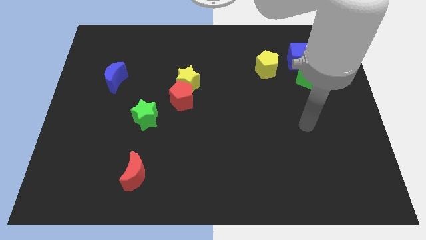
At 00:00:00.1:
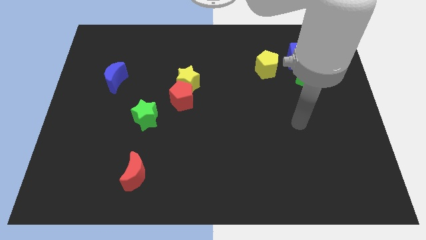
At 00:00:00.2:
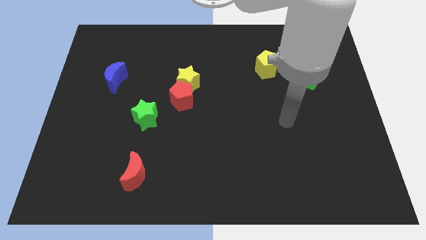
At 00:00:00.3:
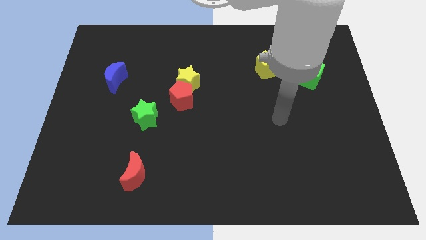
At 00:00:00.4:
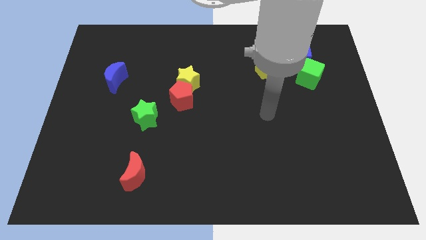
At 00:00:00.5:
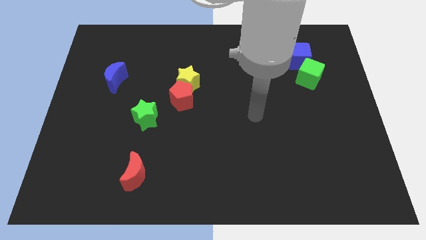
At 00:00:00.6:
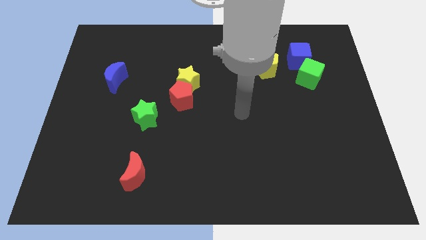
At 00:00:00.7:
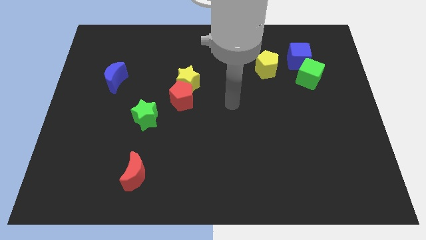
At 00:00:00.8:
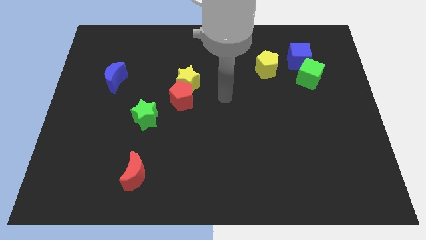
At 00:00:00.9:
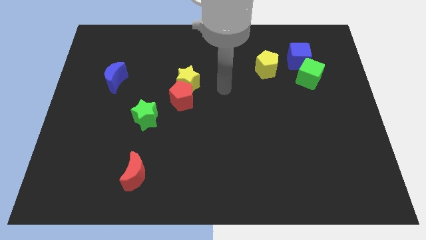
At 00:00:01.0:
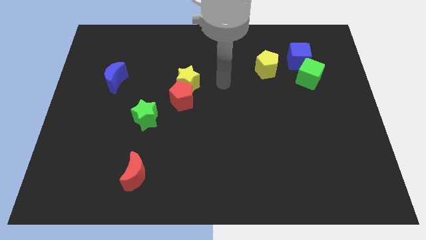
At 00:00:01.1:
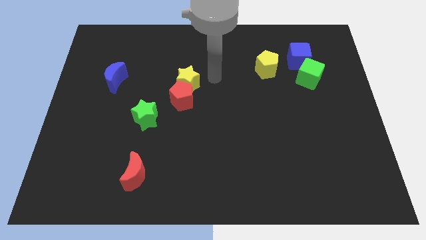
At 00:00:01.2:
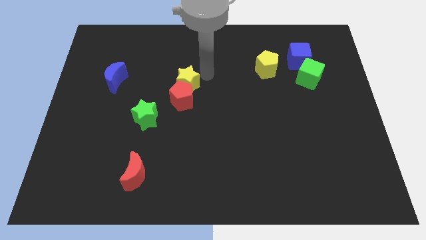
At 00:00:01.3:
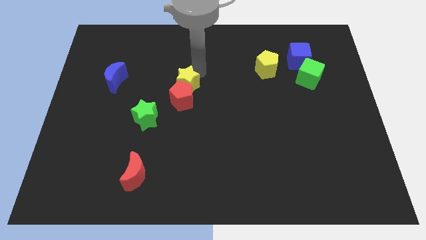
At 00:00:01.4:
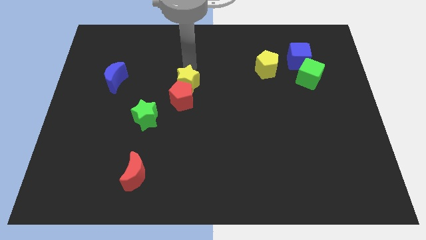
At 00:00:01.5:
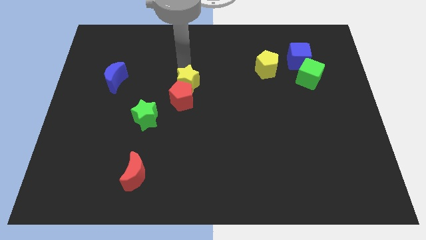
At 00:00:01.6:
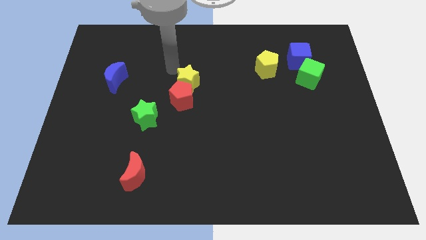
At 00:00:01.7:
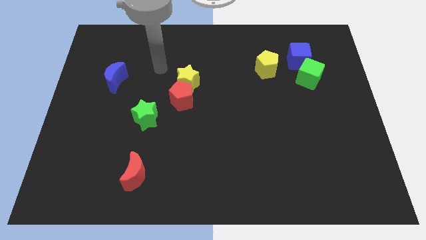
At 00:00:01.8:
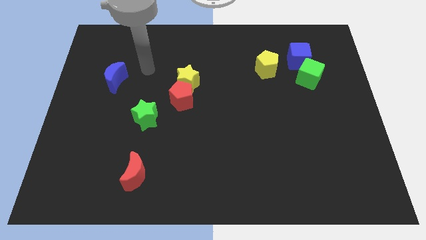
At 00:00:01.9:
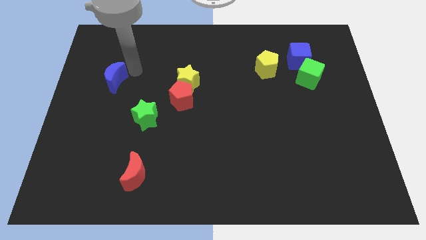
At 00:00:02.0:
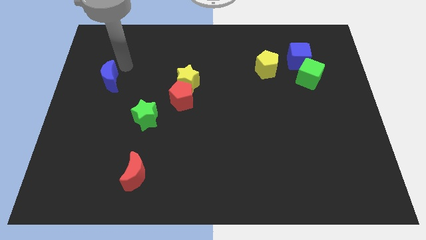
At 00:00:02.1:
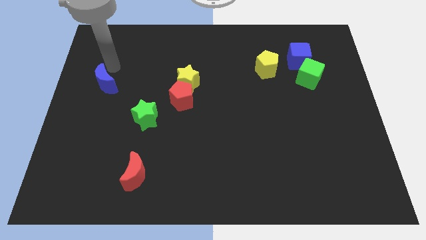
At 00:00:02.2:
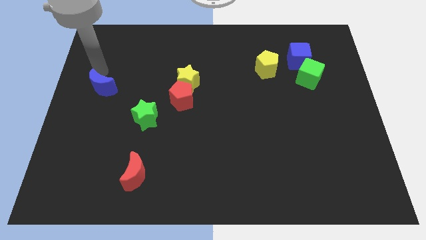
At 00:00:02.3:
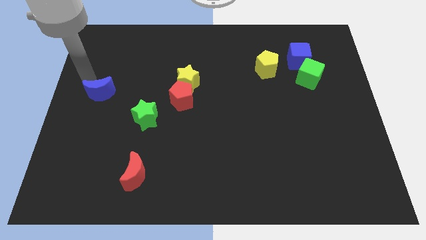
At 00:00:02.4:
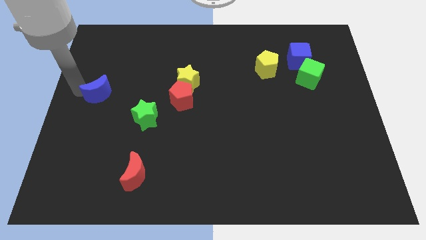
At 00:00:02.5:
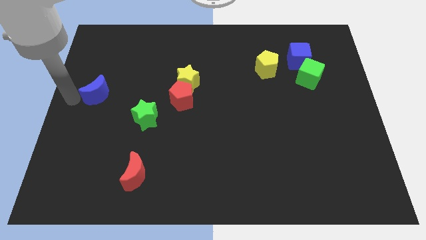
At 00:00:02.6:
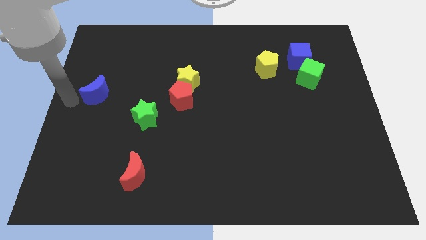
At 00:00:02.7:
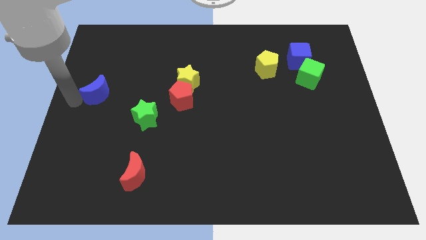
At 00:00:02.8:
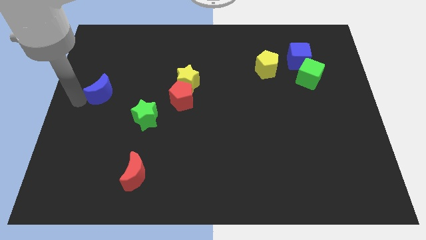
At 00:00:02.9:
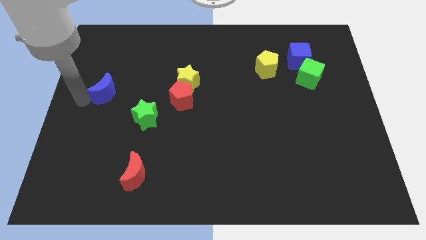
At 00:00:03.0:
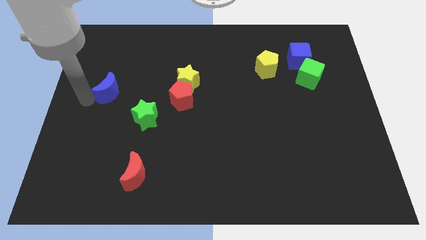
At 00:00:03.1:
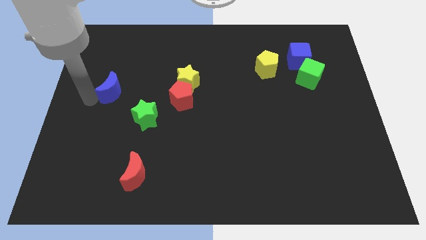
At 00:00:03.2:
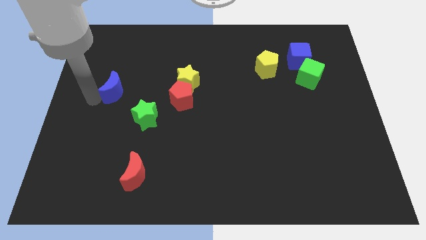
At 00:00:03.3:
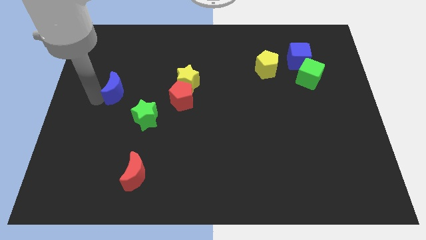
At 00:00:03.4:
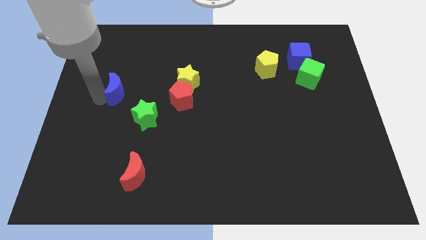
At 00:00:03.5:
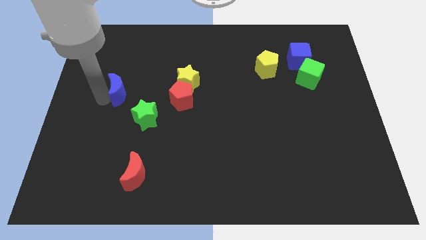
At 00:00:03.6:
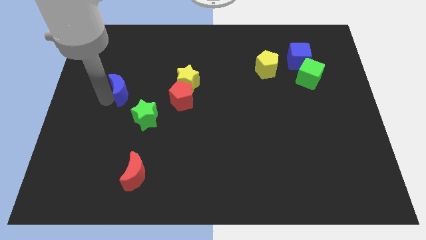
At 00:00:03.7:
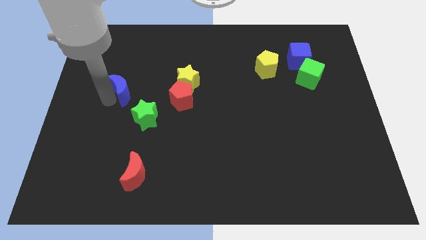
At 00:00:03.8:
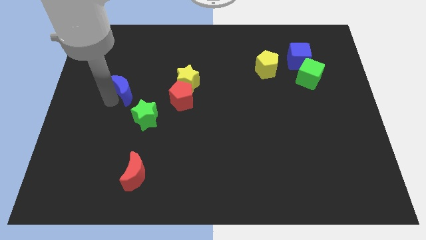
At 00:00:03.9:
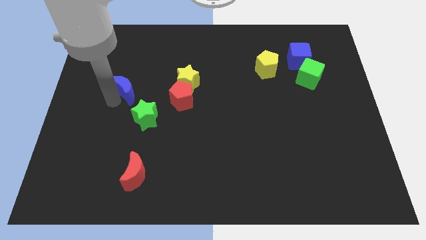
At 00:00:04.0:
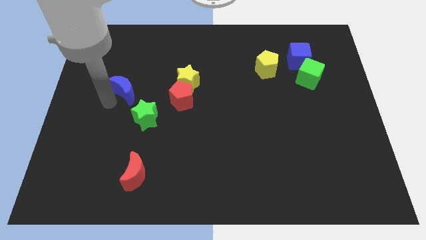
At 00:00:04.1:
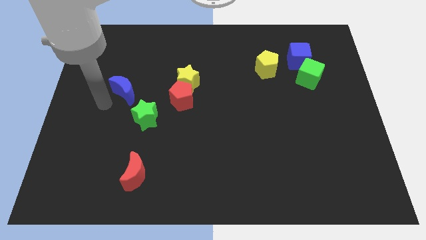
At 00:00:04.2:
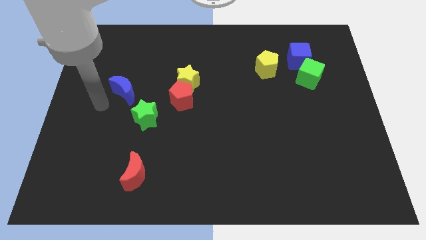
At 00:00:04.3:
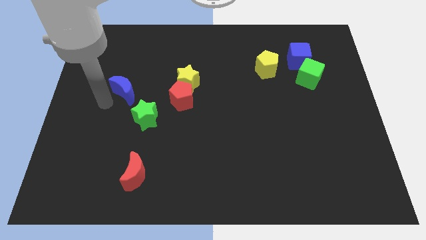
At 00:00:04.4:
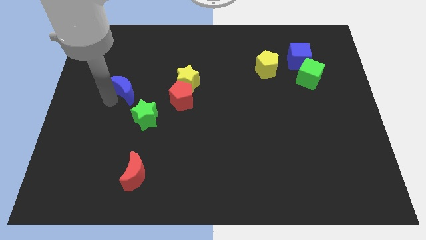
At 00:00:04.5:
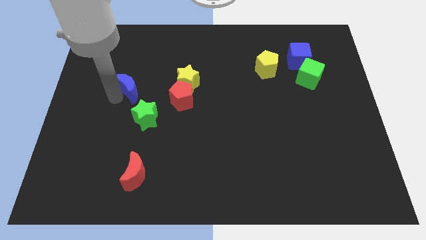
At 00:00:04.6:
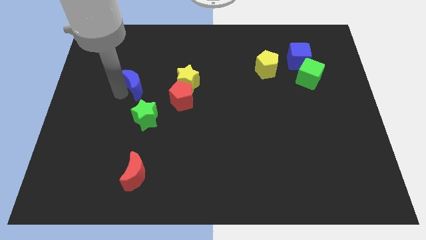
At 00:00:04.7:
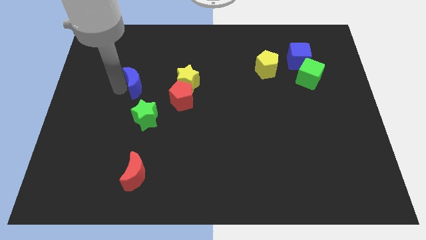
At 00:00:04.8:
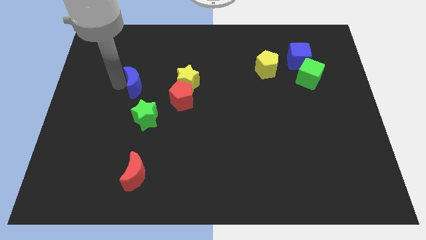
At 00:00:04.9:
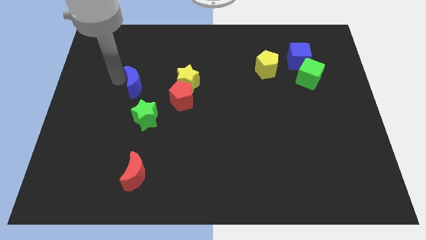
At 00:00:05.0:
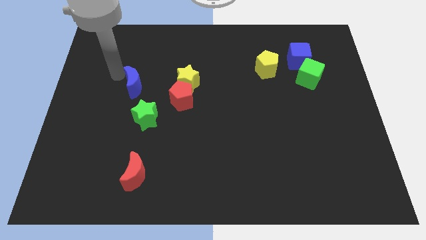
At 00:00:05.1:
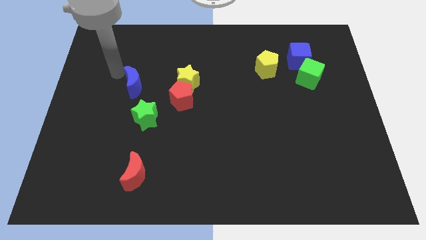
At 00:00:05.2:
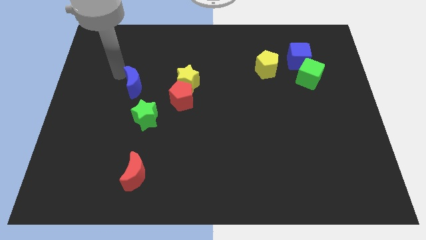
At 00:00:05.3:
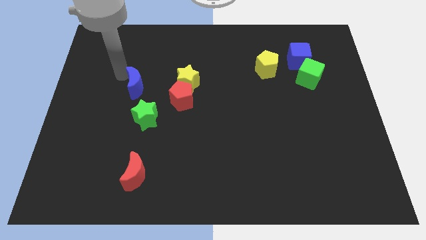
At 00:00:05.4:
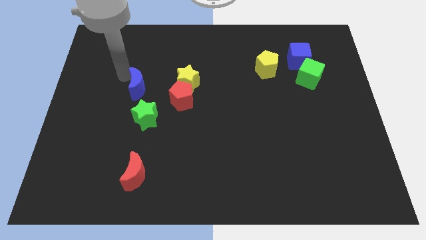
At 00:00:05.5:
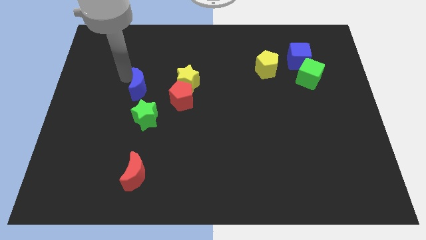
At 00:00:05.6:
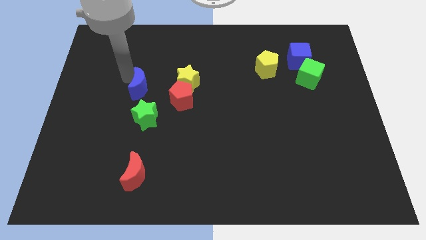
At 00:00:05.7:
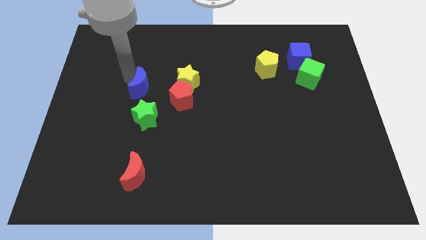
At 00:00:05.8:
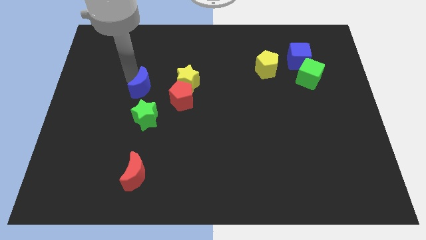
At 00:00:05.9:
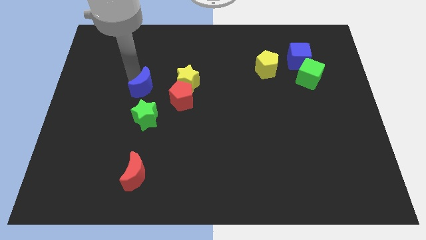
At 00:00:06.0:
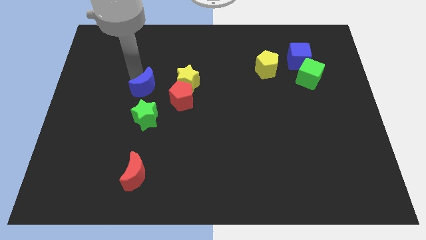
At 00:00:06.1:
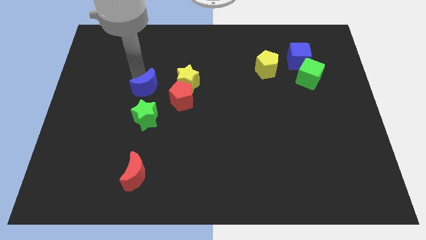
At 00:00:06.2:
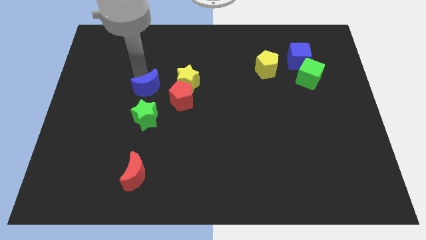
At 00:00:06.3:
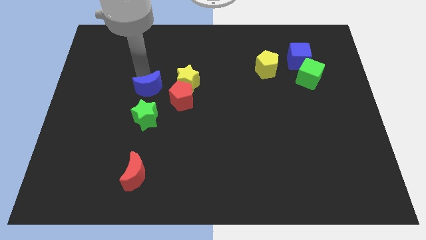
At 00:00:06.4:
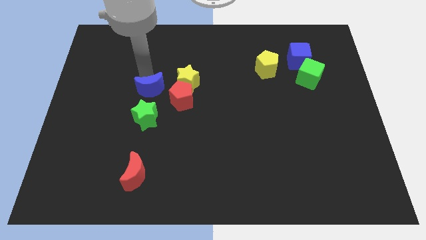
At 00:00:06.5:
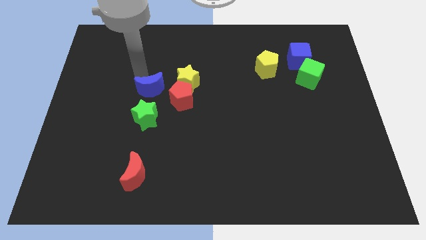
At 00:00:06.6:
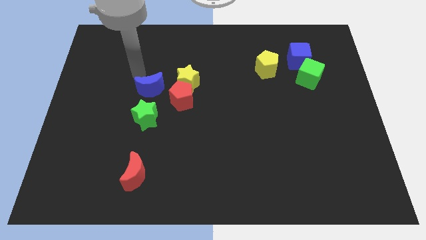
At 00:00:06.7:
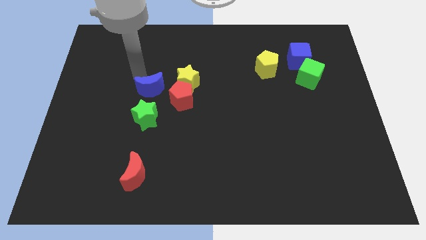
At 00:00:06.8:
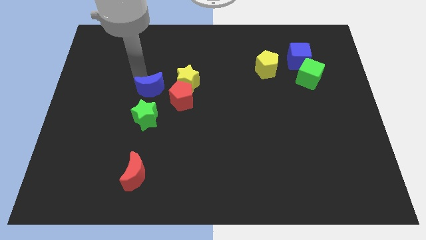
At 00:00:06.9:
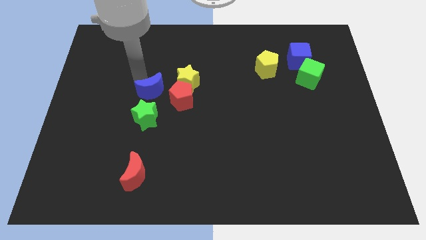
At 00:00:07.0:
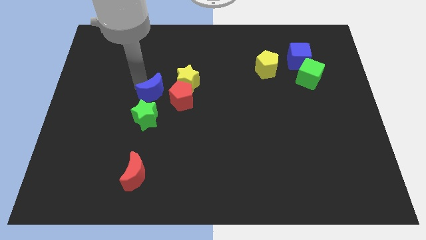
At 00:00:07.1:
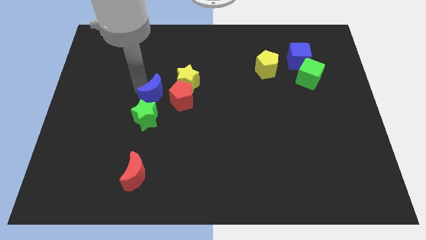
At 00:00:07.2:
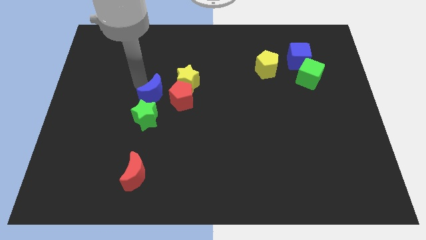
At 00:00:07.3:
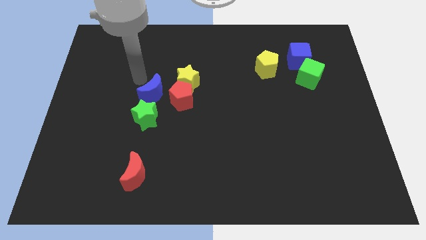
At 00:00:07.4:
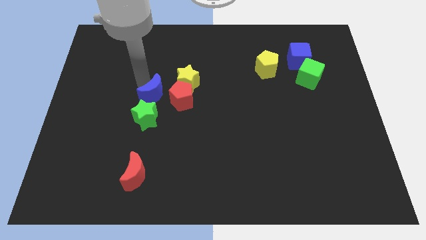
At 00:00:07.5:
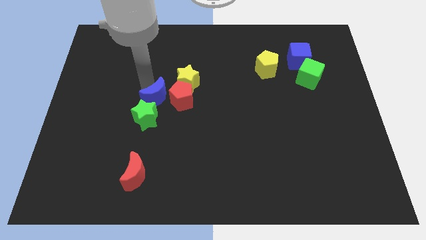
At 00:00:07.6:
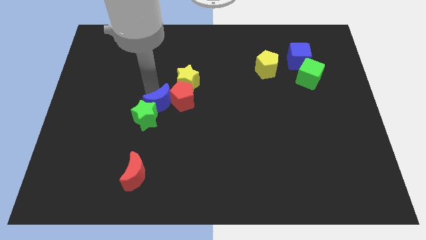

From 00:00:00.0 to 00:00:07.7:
slide the blue moon to the center
